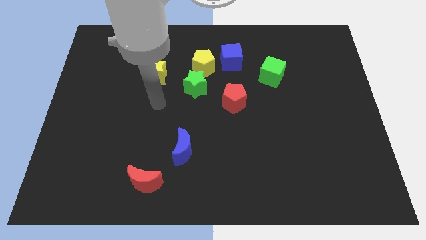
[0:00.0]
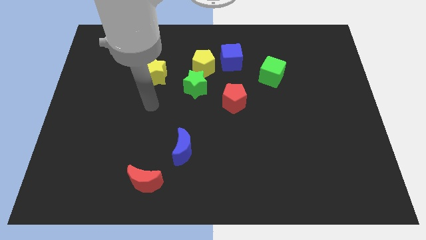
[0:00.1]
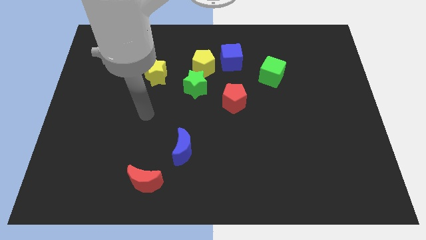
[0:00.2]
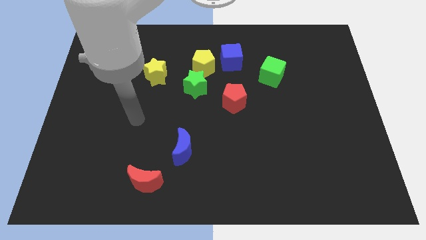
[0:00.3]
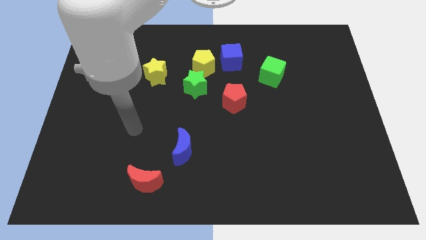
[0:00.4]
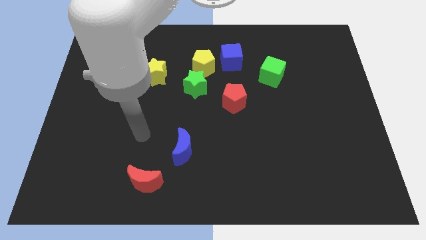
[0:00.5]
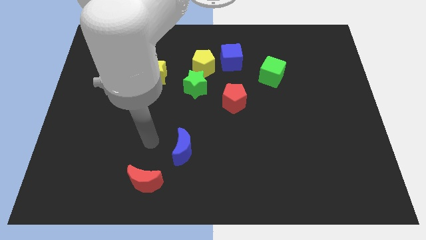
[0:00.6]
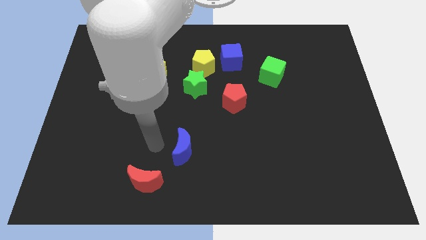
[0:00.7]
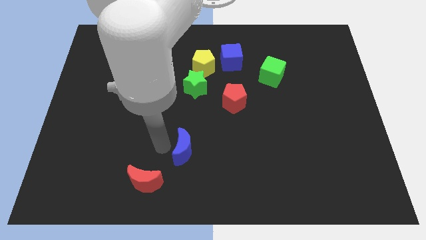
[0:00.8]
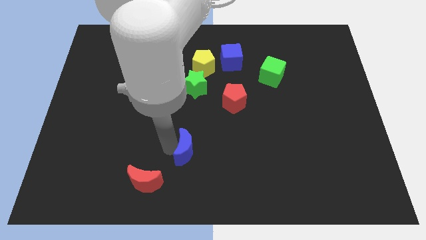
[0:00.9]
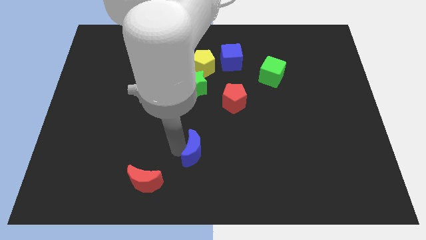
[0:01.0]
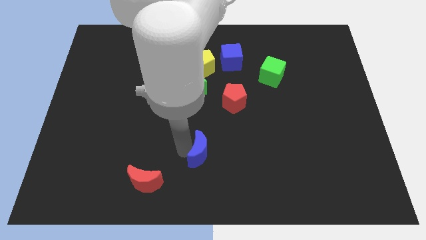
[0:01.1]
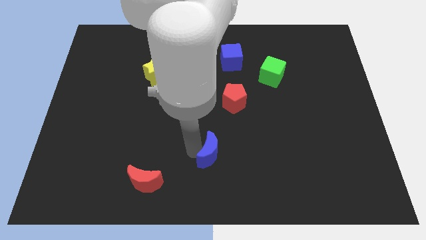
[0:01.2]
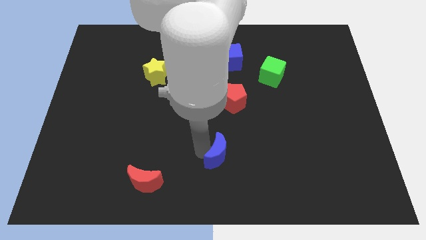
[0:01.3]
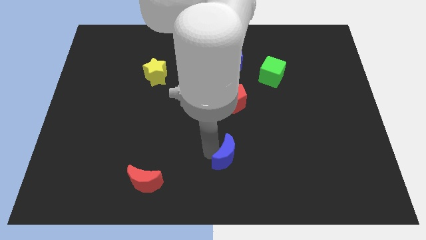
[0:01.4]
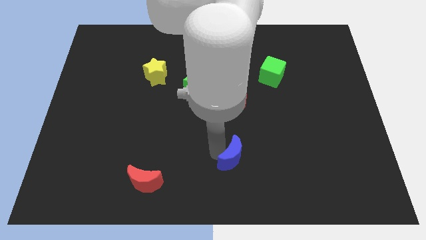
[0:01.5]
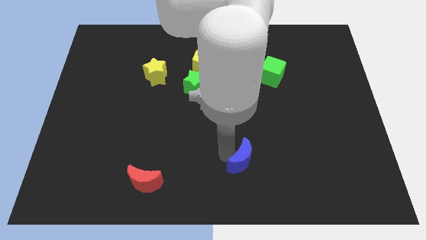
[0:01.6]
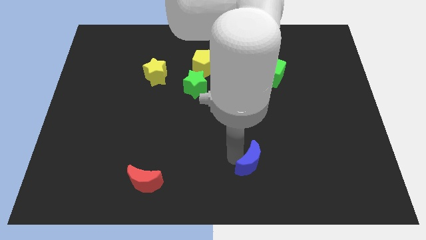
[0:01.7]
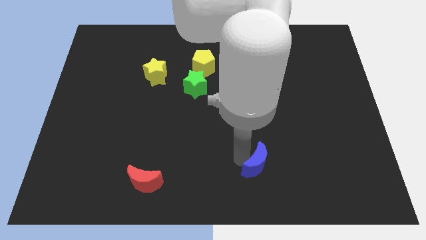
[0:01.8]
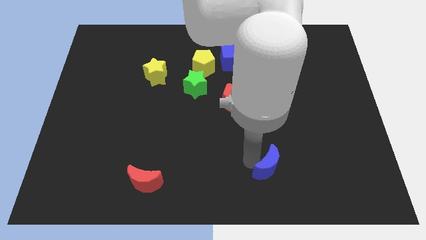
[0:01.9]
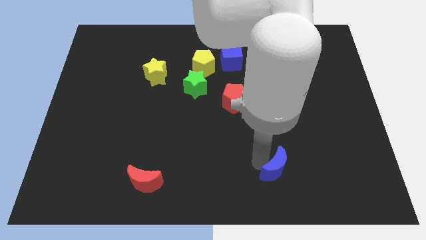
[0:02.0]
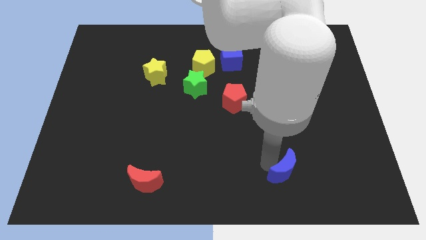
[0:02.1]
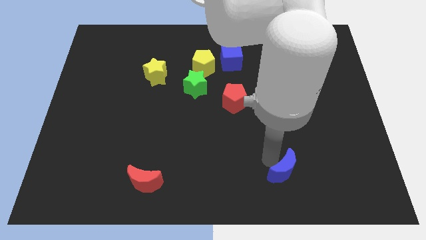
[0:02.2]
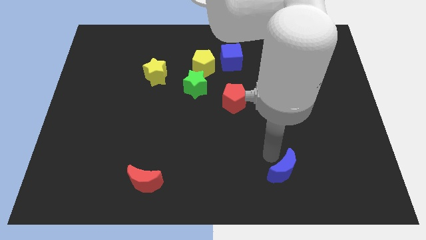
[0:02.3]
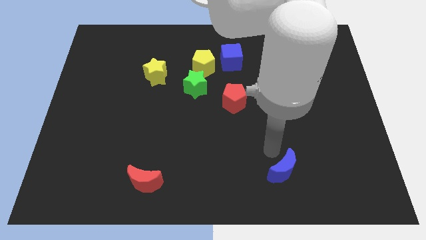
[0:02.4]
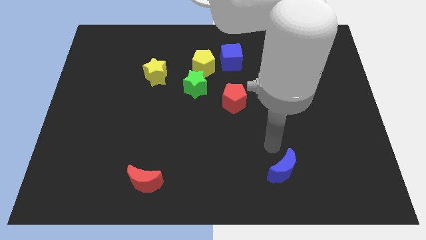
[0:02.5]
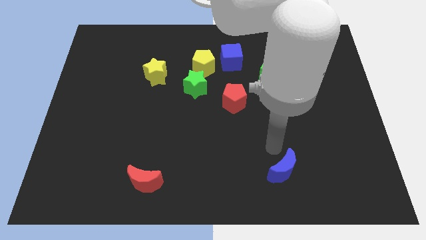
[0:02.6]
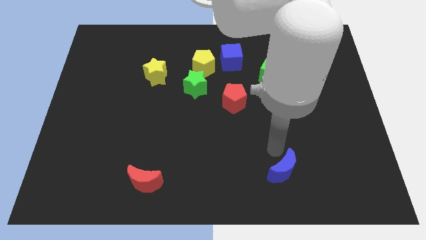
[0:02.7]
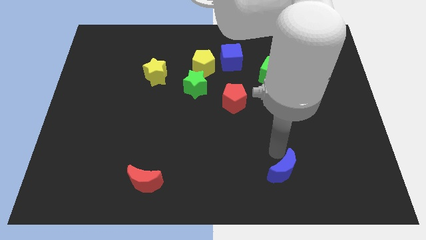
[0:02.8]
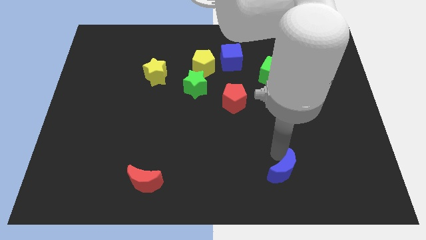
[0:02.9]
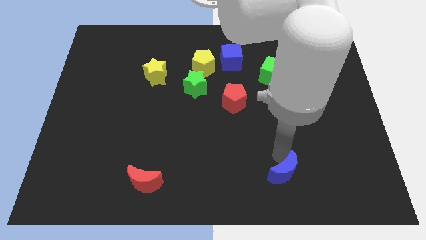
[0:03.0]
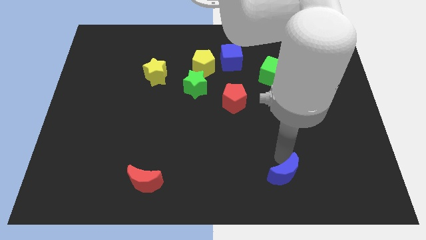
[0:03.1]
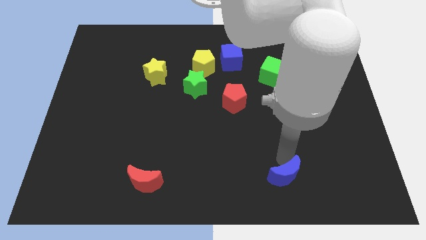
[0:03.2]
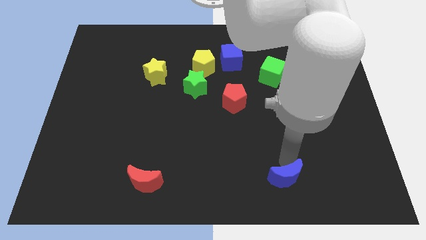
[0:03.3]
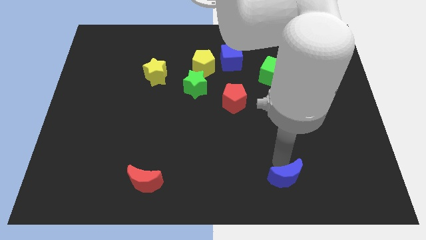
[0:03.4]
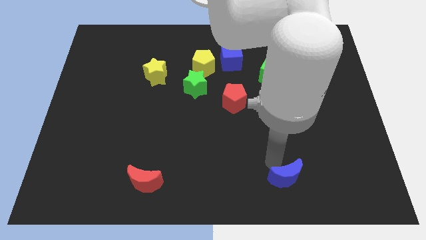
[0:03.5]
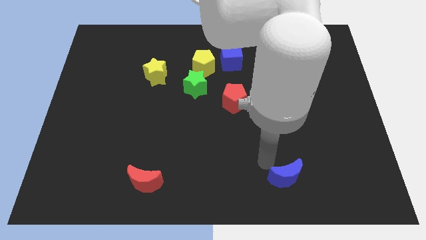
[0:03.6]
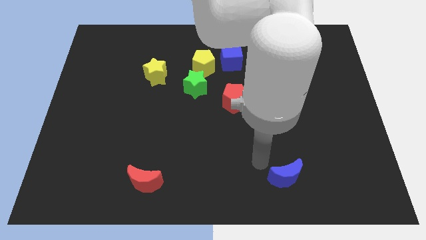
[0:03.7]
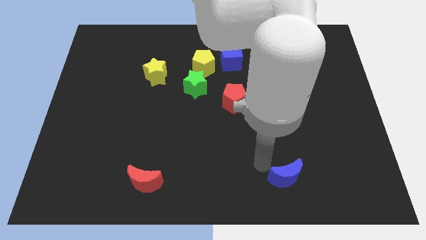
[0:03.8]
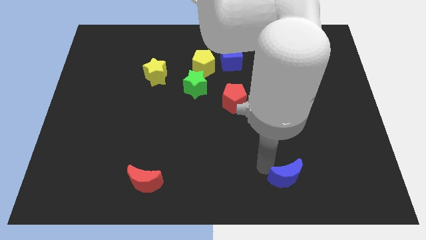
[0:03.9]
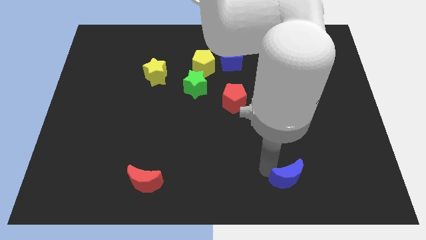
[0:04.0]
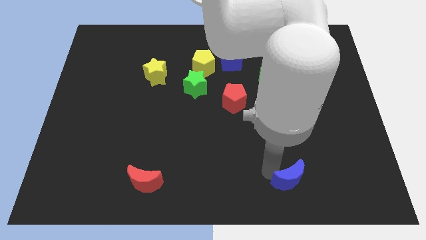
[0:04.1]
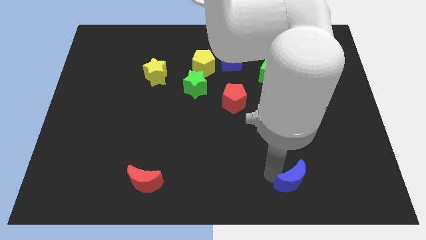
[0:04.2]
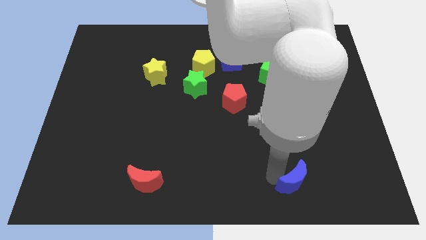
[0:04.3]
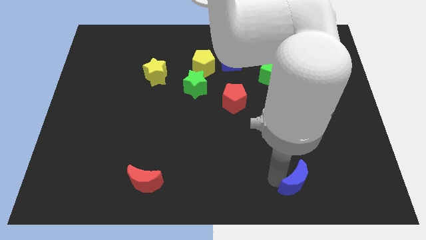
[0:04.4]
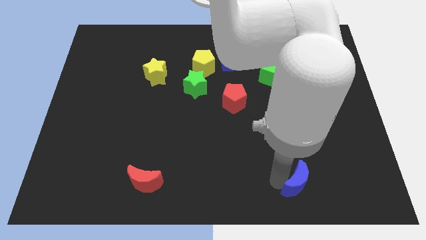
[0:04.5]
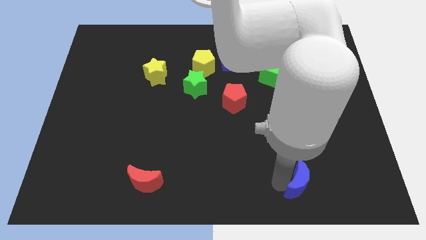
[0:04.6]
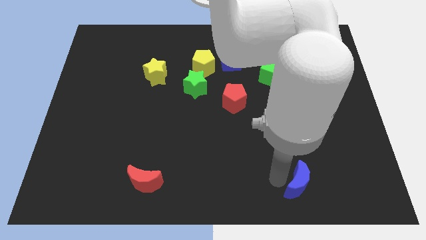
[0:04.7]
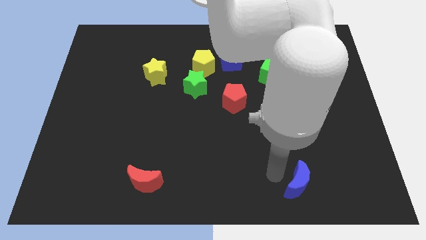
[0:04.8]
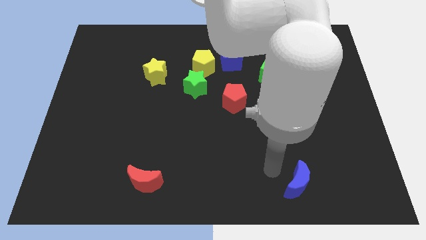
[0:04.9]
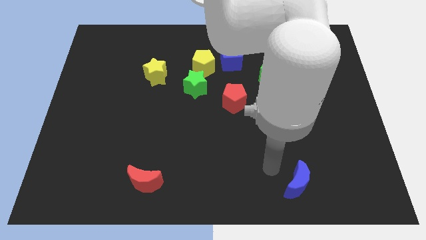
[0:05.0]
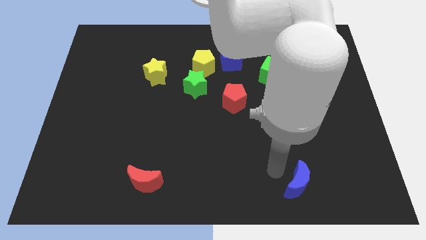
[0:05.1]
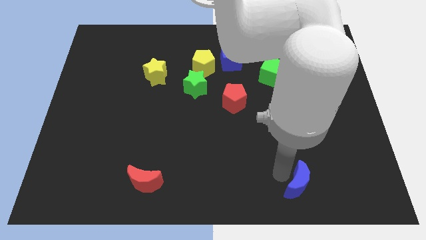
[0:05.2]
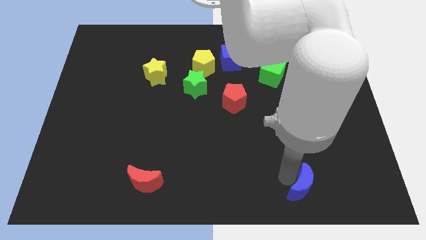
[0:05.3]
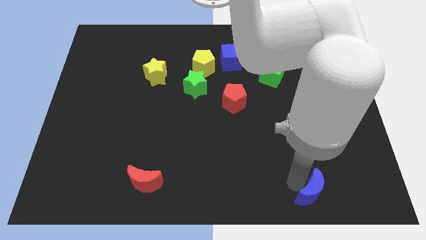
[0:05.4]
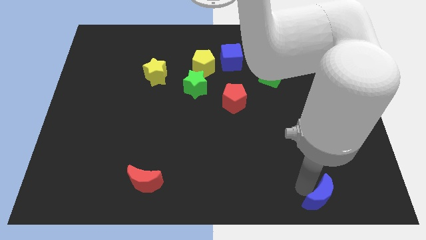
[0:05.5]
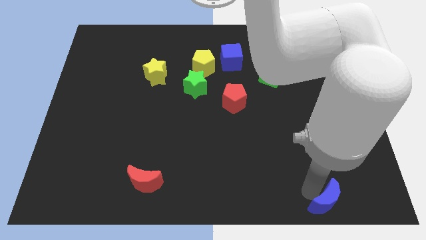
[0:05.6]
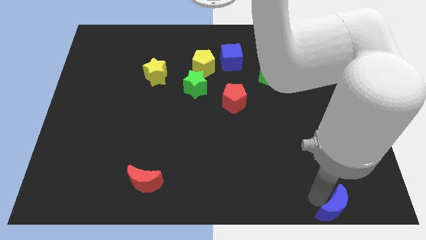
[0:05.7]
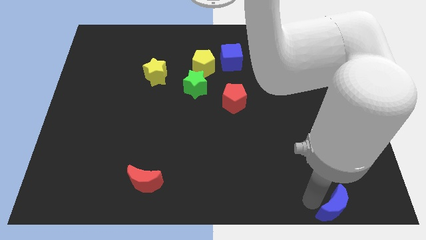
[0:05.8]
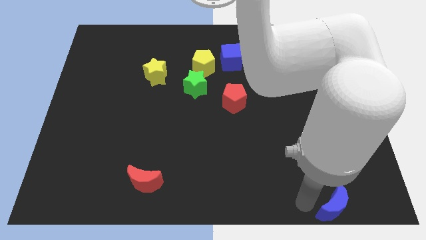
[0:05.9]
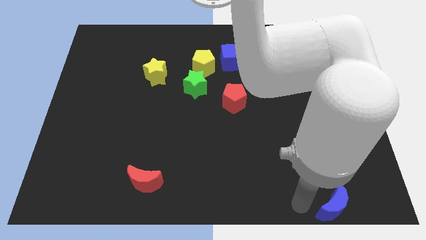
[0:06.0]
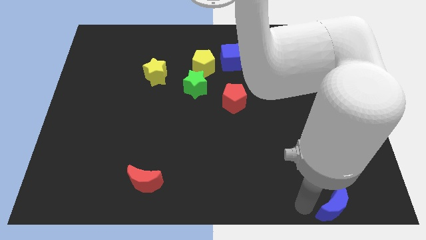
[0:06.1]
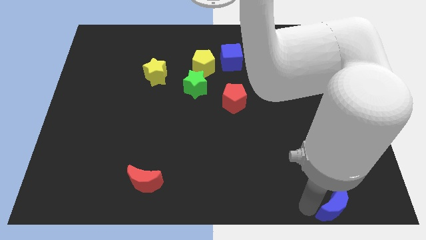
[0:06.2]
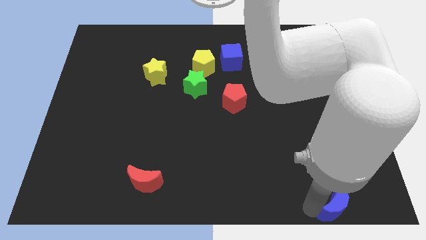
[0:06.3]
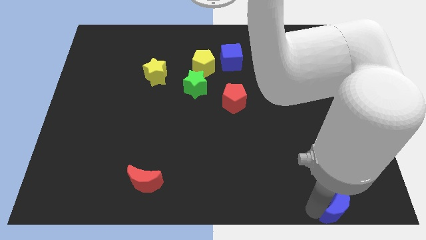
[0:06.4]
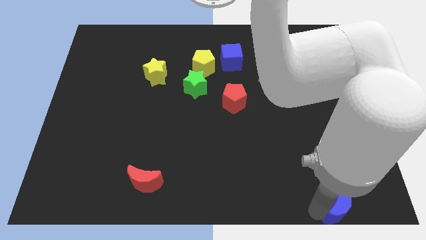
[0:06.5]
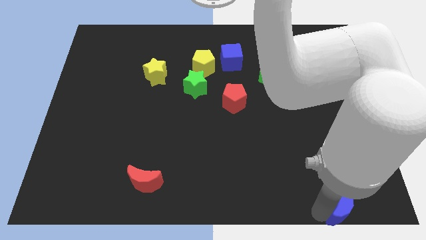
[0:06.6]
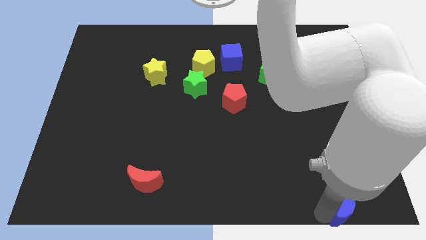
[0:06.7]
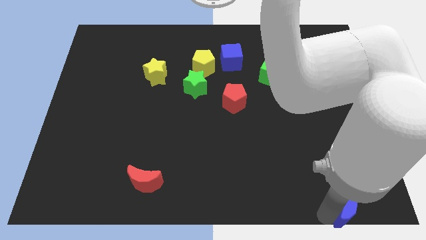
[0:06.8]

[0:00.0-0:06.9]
push the blue moon to the bottom right of the board

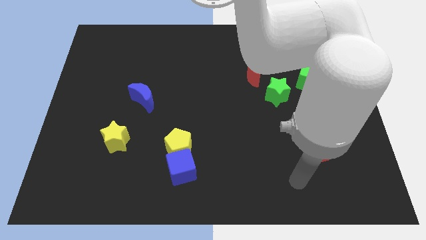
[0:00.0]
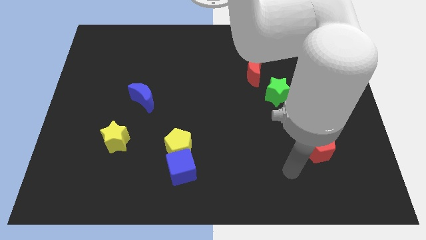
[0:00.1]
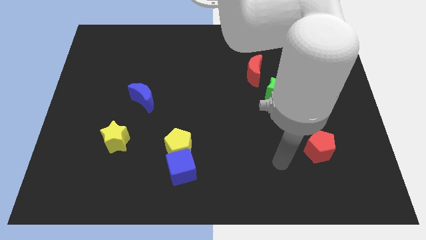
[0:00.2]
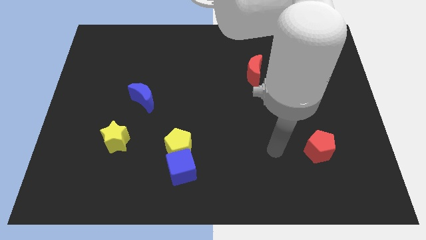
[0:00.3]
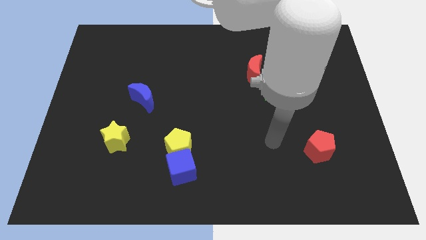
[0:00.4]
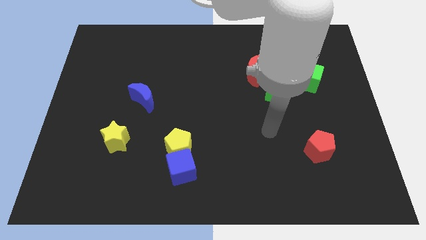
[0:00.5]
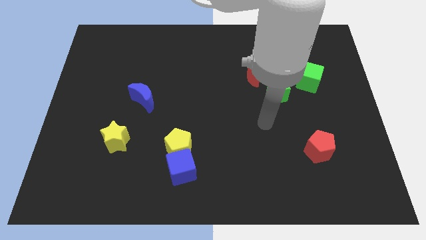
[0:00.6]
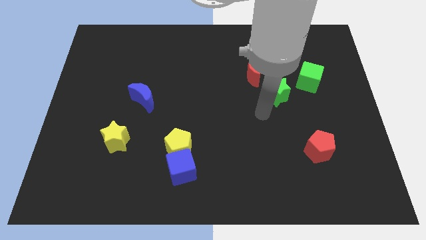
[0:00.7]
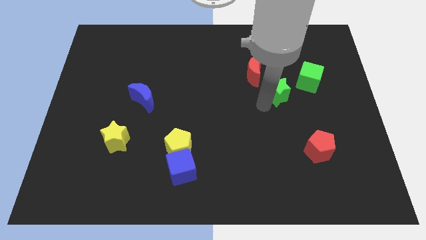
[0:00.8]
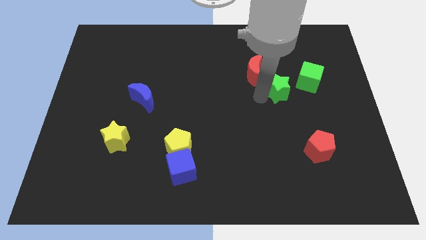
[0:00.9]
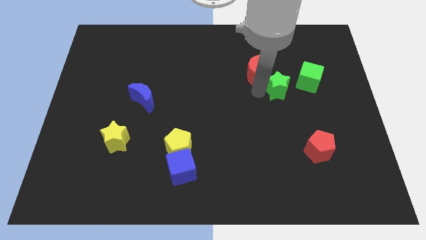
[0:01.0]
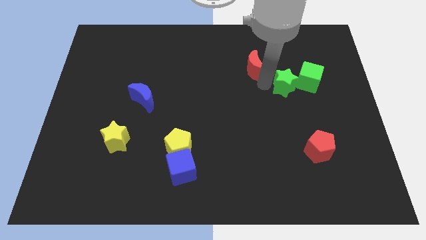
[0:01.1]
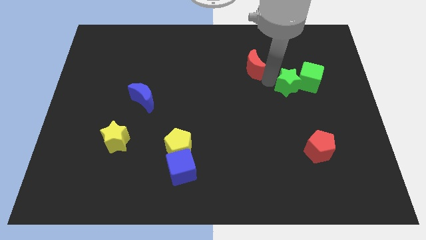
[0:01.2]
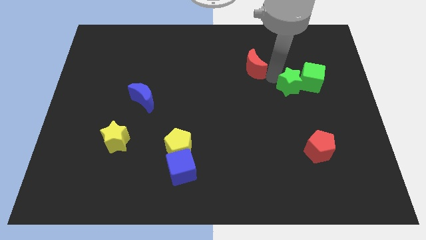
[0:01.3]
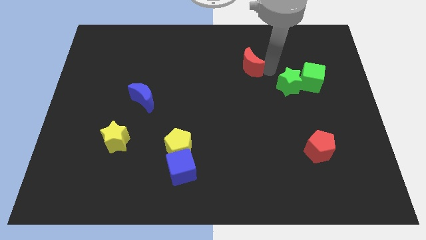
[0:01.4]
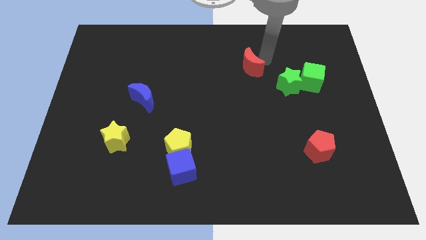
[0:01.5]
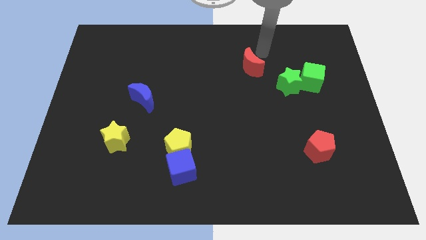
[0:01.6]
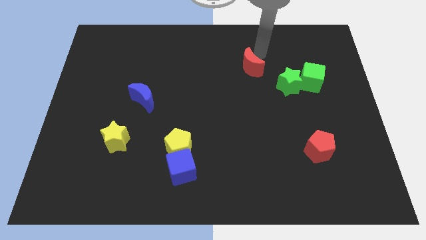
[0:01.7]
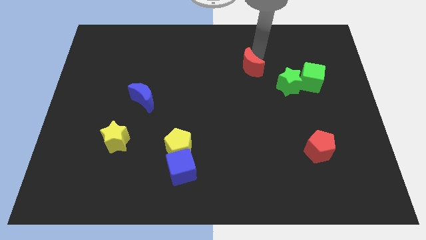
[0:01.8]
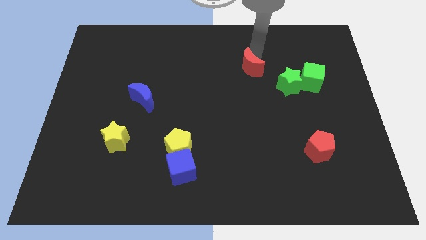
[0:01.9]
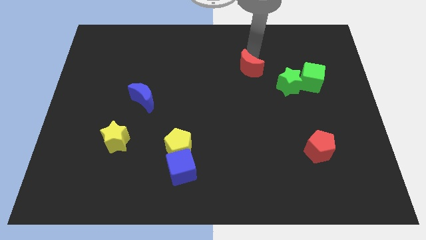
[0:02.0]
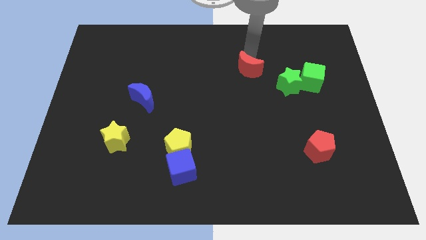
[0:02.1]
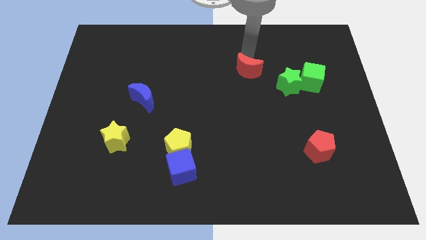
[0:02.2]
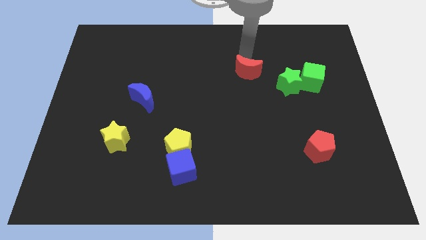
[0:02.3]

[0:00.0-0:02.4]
slide the red moon to the center of the board
